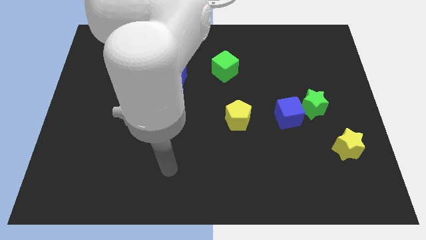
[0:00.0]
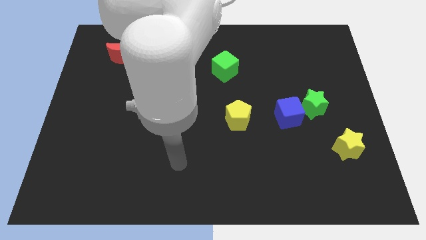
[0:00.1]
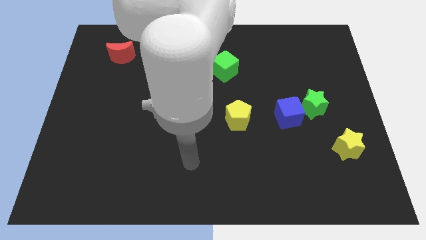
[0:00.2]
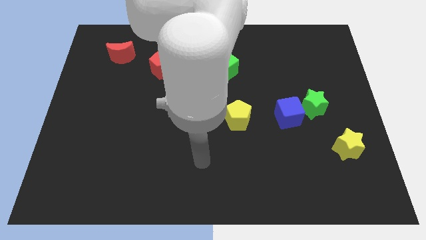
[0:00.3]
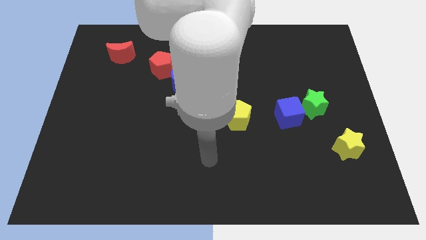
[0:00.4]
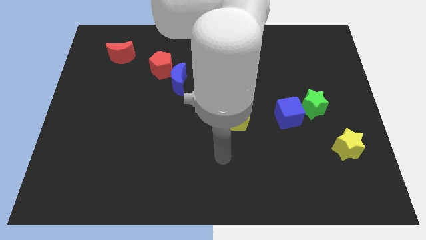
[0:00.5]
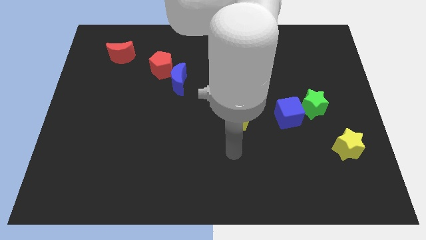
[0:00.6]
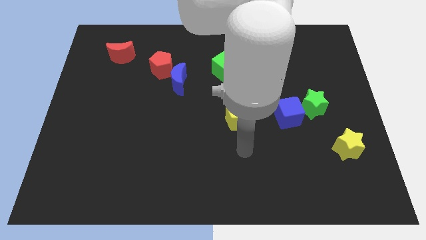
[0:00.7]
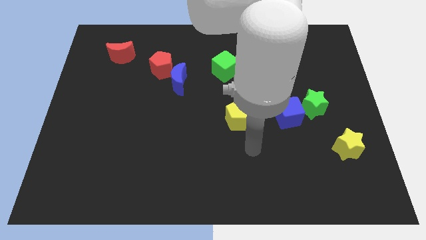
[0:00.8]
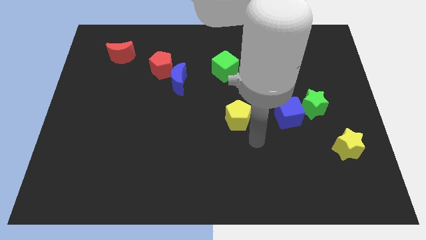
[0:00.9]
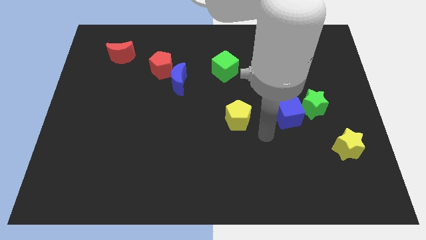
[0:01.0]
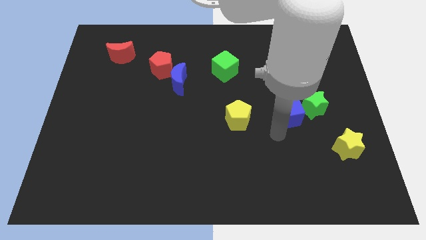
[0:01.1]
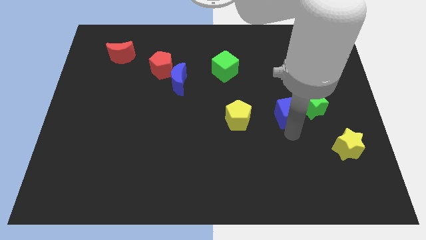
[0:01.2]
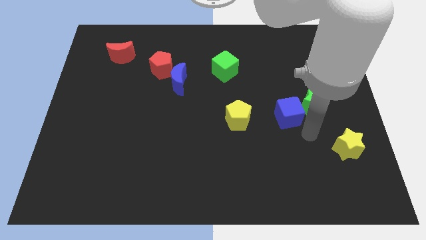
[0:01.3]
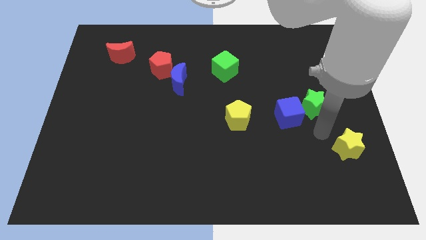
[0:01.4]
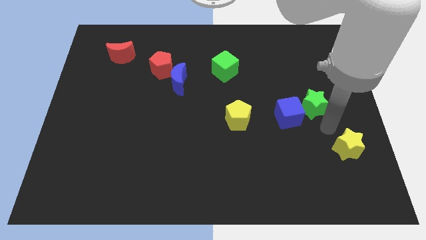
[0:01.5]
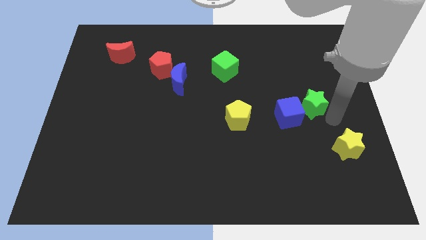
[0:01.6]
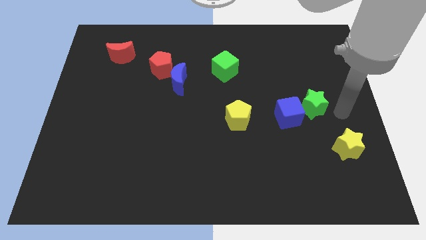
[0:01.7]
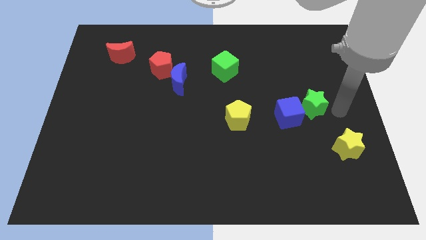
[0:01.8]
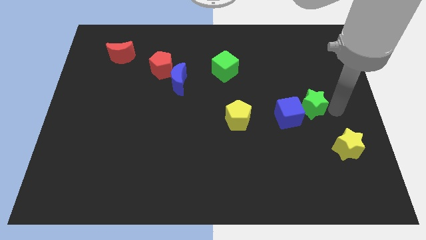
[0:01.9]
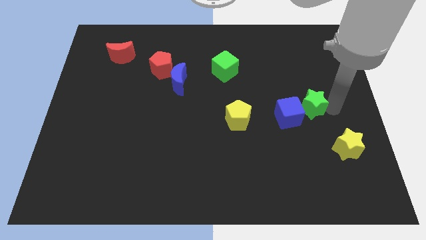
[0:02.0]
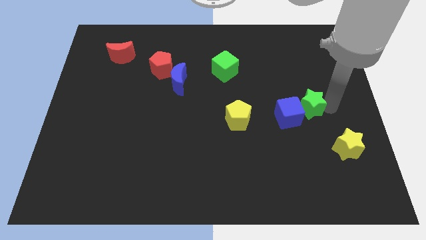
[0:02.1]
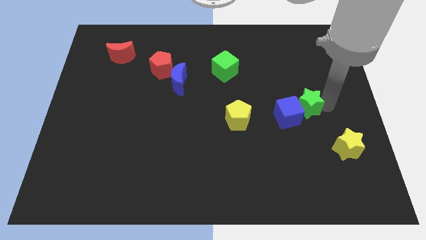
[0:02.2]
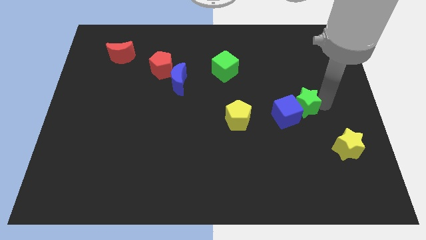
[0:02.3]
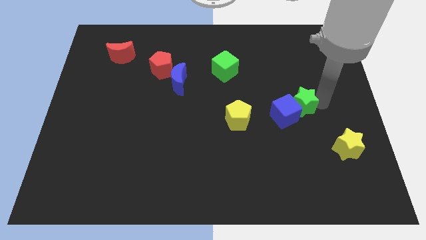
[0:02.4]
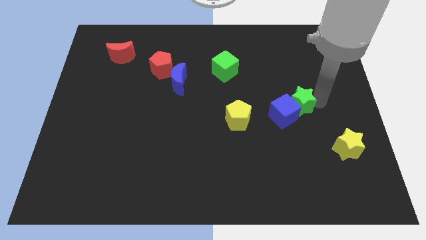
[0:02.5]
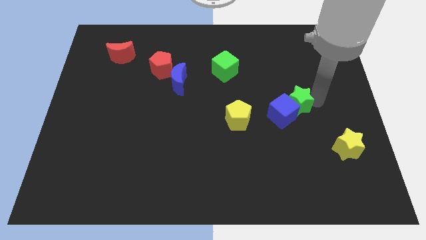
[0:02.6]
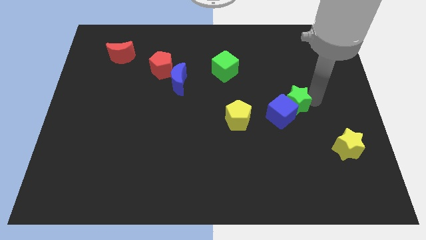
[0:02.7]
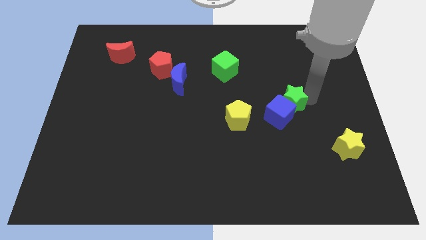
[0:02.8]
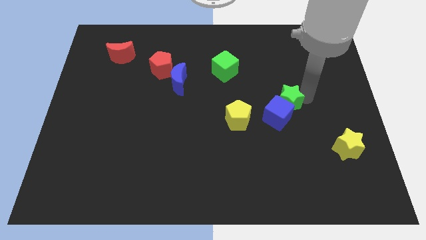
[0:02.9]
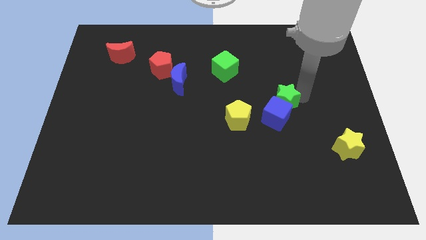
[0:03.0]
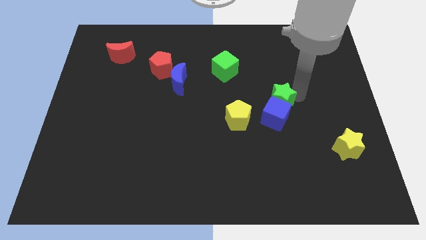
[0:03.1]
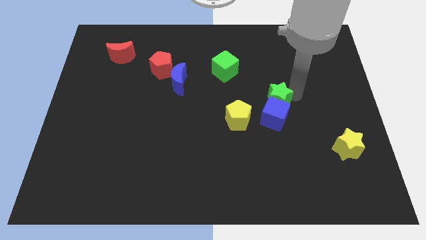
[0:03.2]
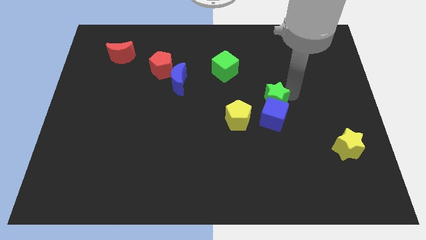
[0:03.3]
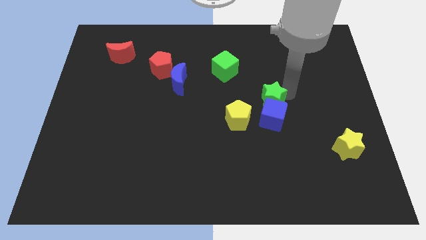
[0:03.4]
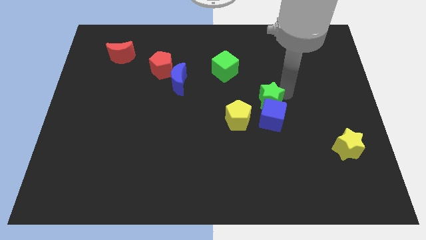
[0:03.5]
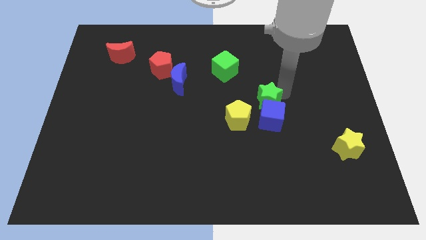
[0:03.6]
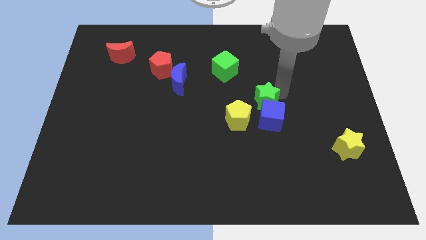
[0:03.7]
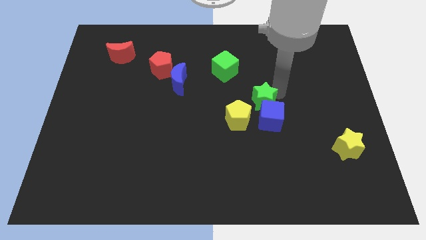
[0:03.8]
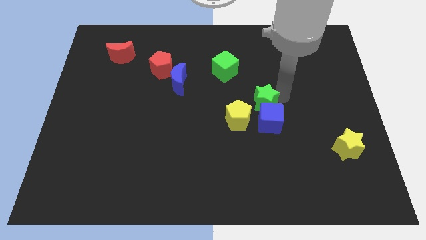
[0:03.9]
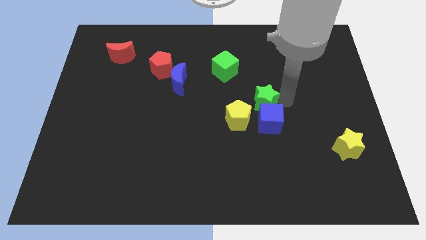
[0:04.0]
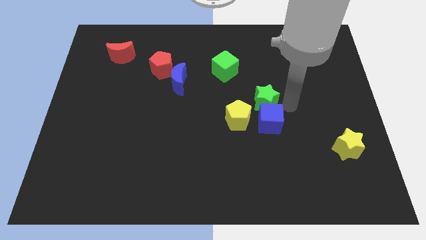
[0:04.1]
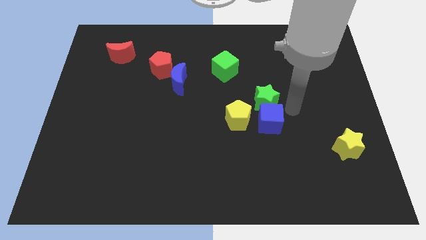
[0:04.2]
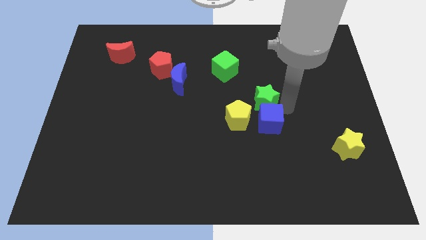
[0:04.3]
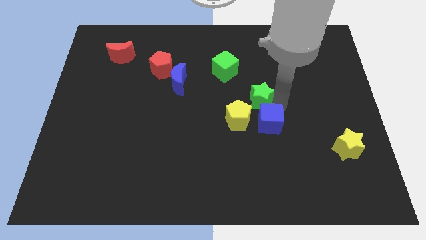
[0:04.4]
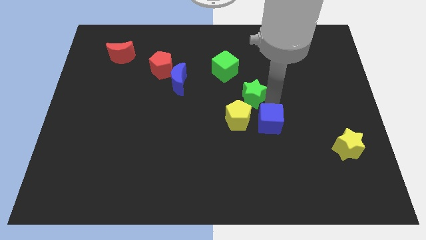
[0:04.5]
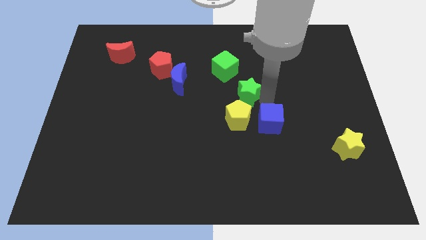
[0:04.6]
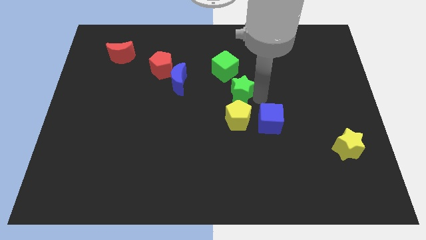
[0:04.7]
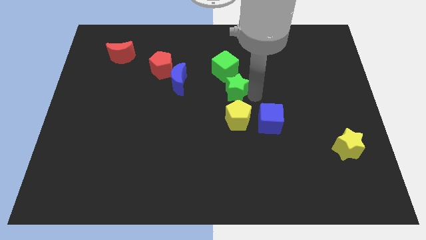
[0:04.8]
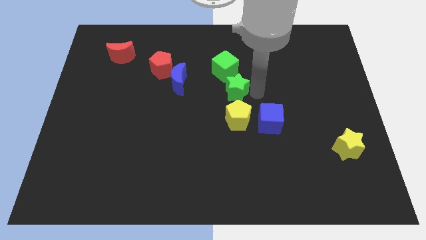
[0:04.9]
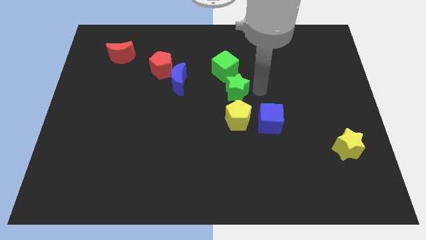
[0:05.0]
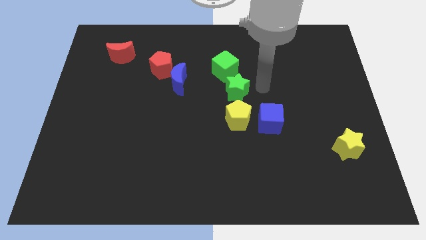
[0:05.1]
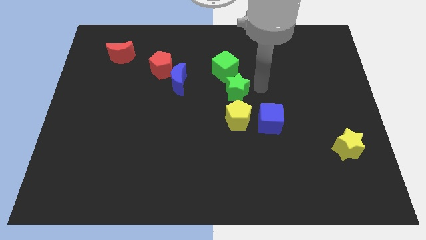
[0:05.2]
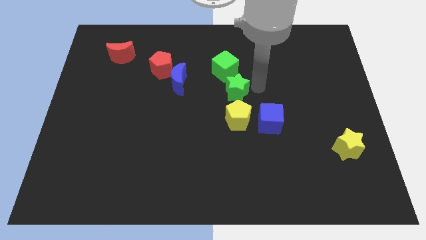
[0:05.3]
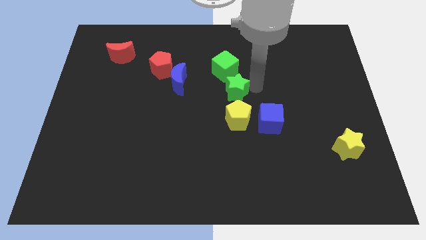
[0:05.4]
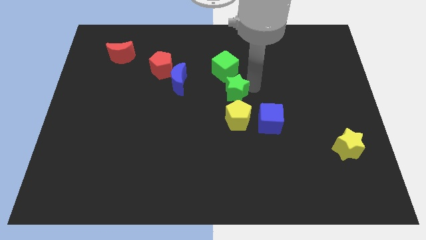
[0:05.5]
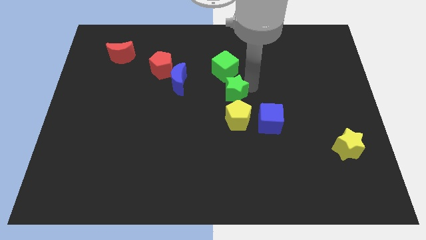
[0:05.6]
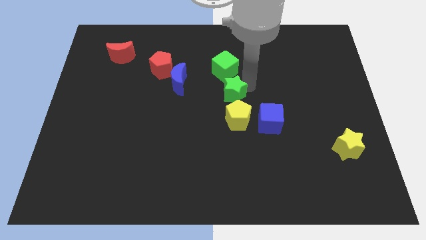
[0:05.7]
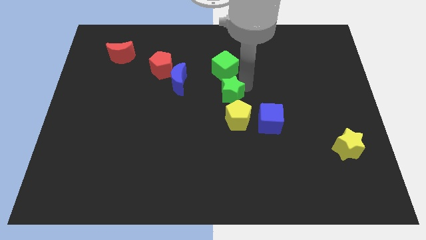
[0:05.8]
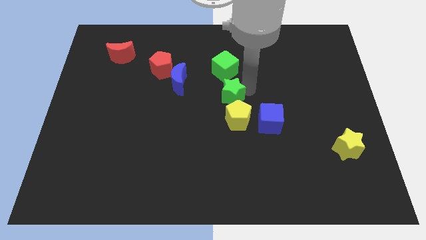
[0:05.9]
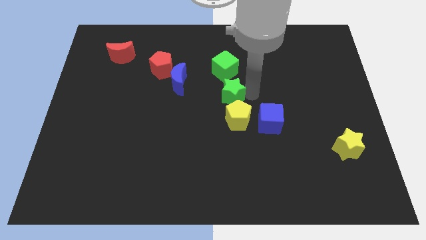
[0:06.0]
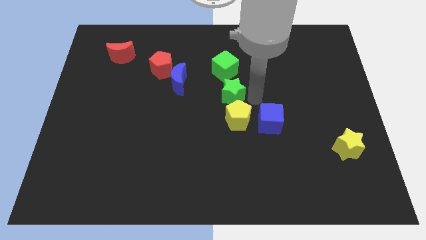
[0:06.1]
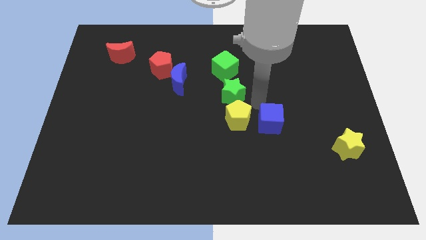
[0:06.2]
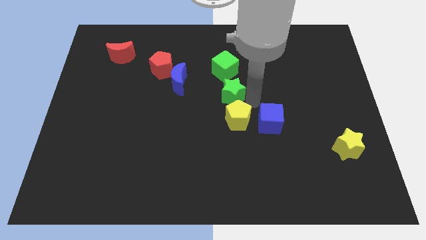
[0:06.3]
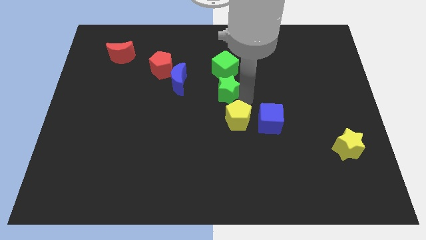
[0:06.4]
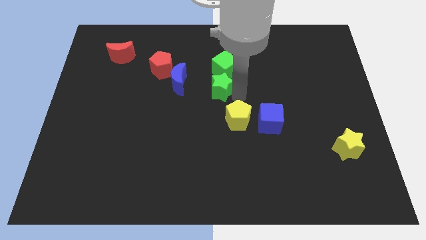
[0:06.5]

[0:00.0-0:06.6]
put the green star diagonally down and to the left of the green cube
